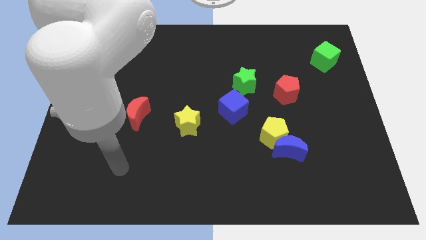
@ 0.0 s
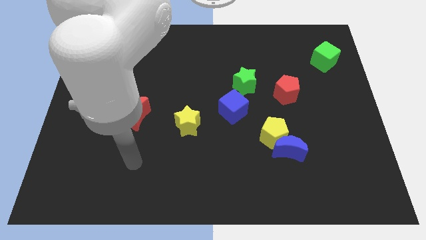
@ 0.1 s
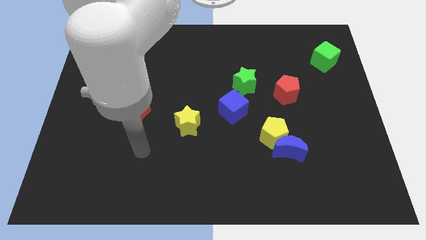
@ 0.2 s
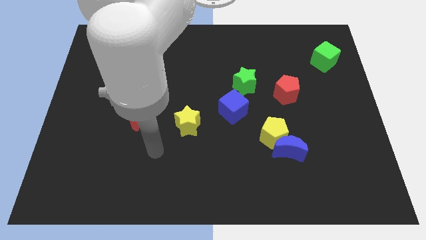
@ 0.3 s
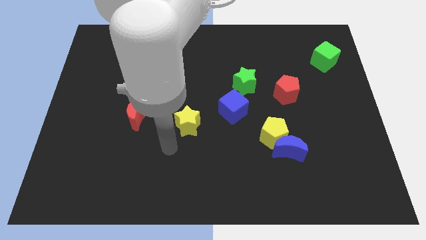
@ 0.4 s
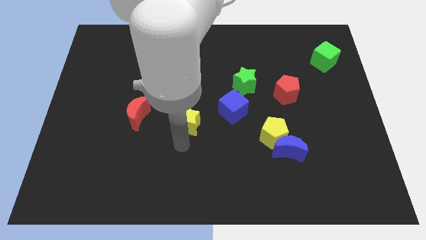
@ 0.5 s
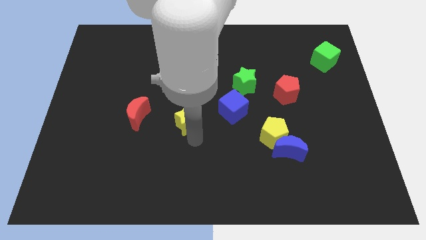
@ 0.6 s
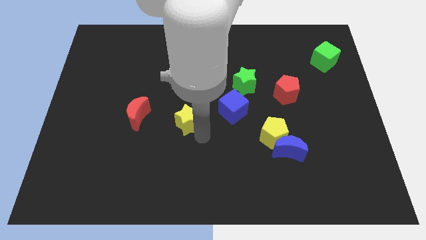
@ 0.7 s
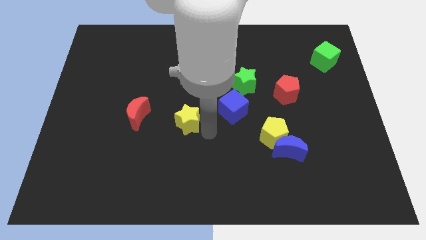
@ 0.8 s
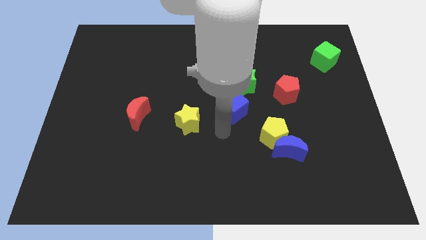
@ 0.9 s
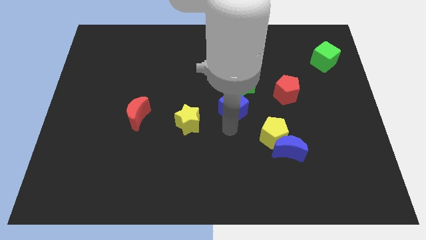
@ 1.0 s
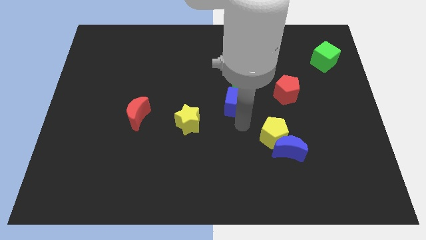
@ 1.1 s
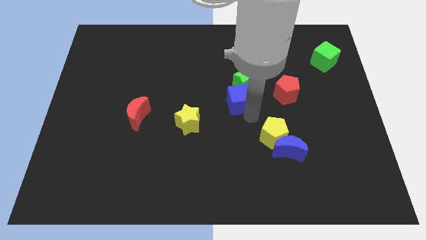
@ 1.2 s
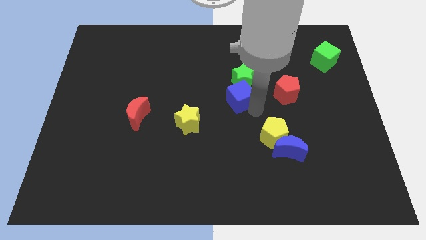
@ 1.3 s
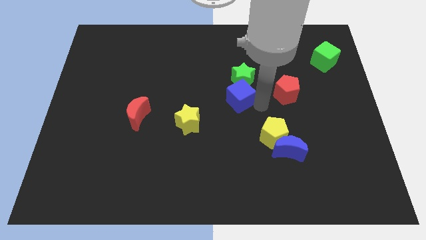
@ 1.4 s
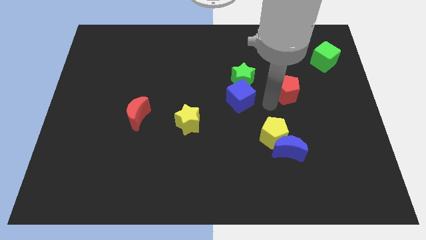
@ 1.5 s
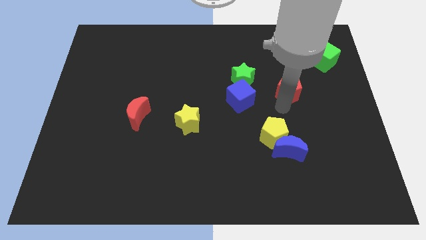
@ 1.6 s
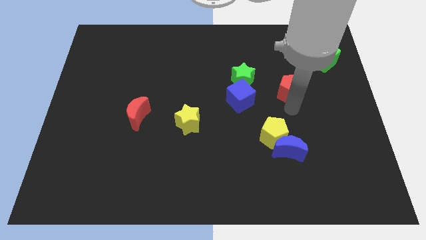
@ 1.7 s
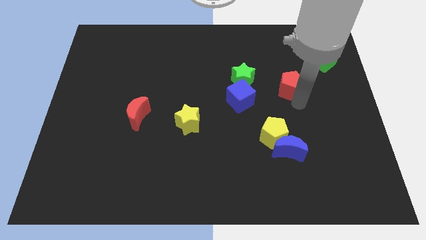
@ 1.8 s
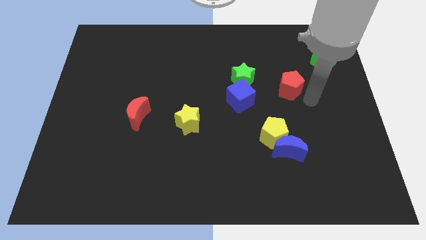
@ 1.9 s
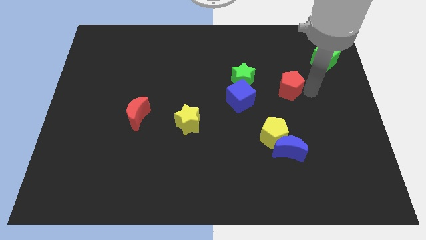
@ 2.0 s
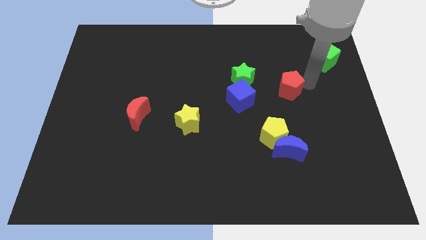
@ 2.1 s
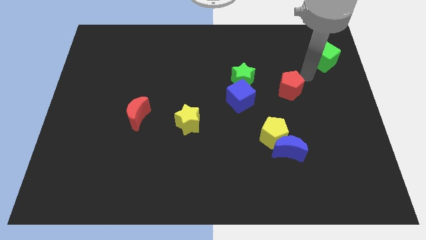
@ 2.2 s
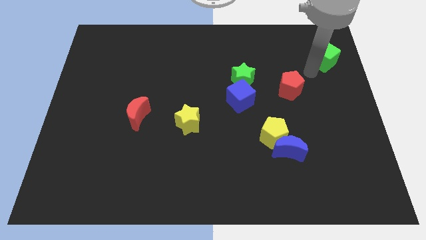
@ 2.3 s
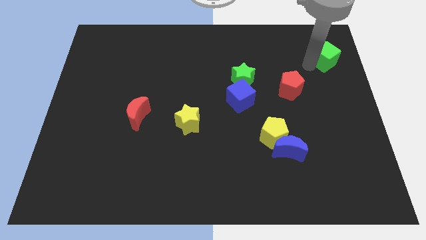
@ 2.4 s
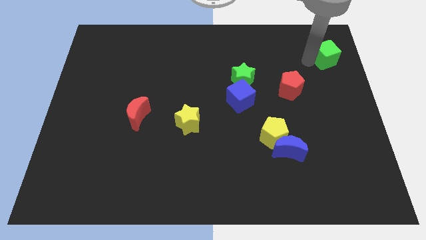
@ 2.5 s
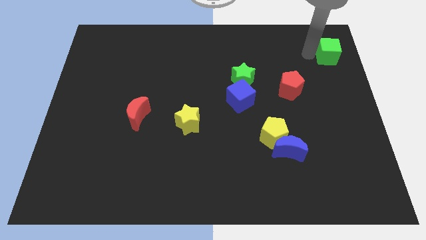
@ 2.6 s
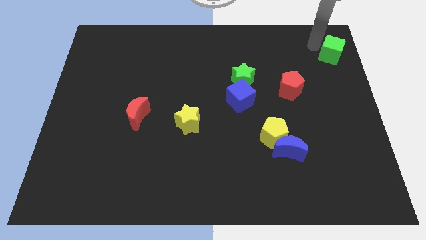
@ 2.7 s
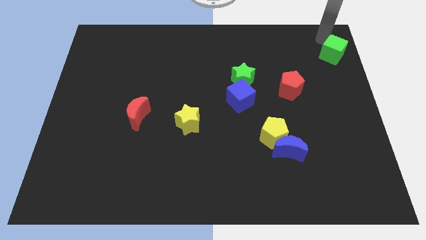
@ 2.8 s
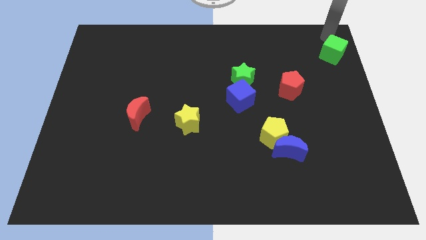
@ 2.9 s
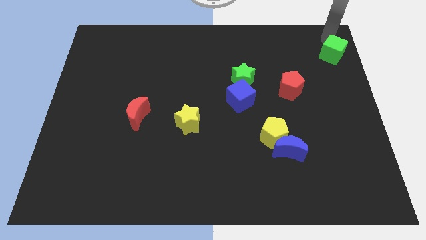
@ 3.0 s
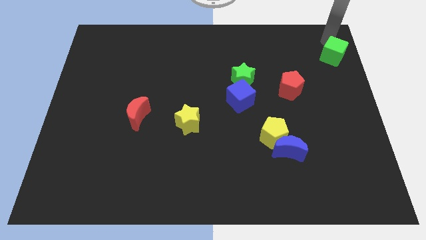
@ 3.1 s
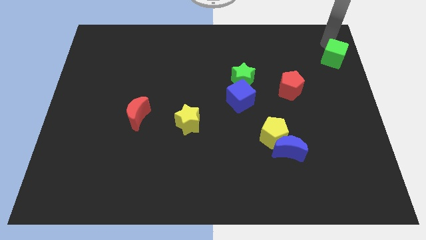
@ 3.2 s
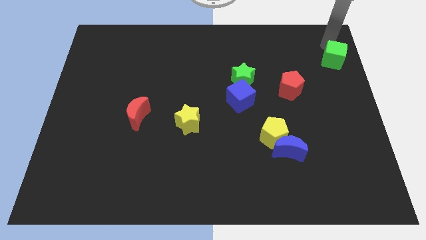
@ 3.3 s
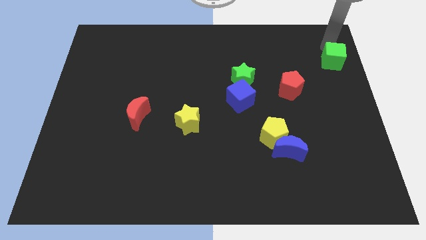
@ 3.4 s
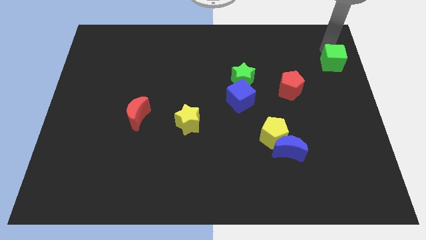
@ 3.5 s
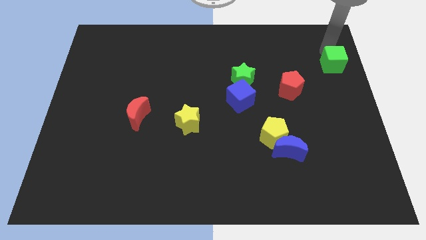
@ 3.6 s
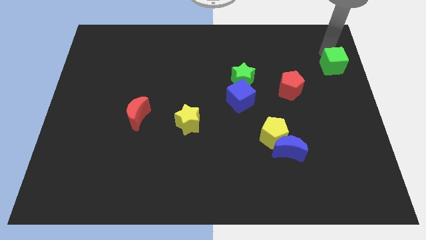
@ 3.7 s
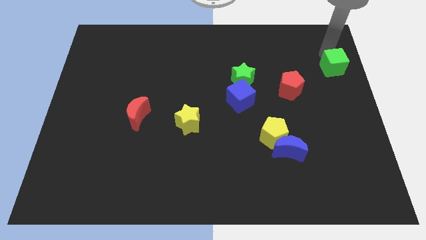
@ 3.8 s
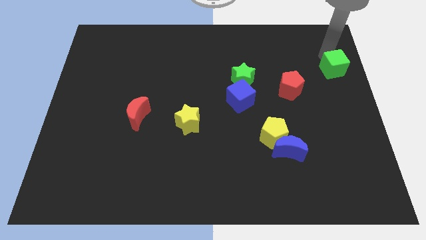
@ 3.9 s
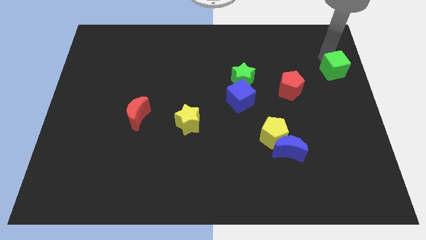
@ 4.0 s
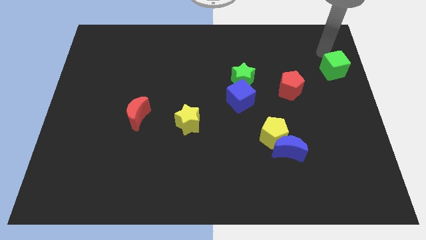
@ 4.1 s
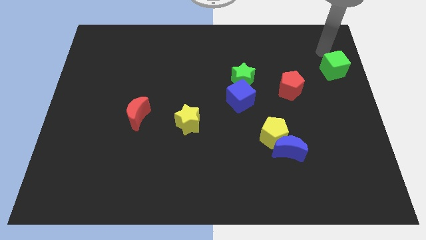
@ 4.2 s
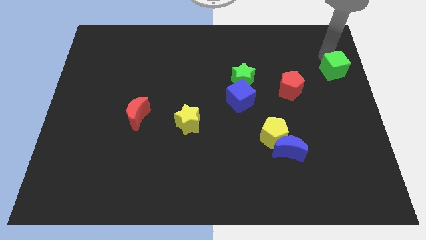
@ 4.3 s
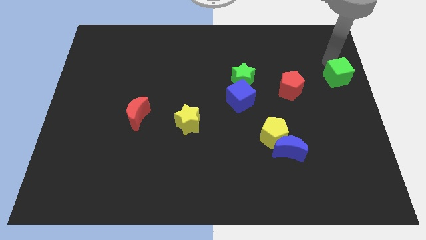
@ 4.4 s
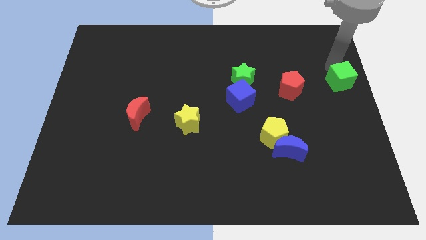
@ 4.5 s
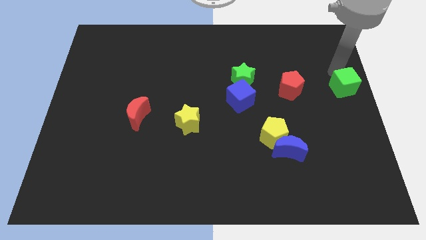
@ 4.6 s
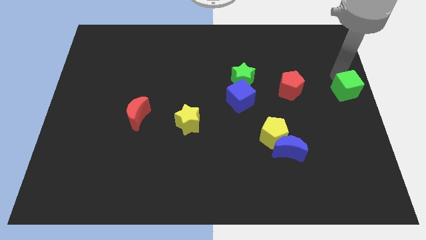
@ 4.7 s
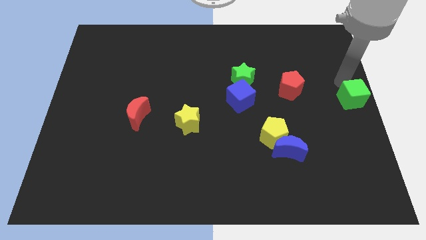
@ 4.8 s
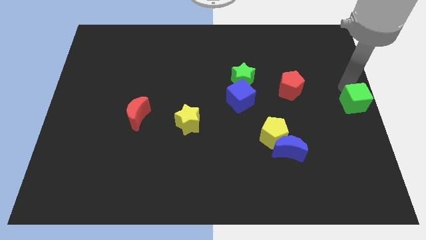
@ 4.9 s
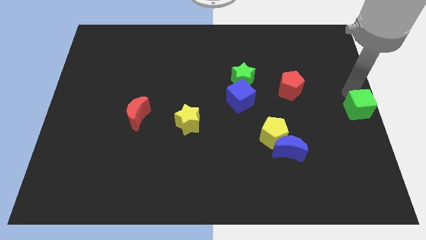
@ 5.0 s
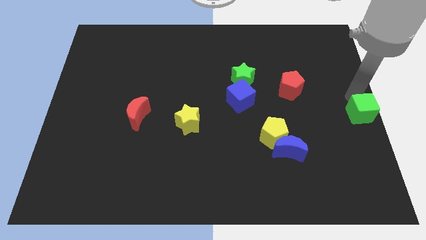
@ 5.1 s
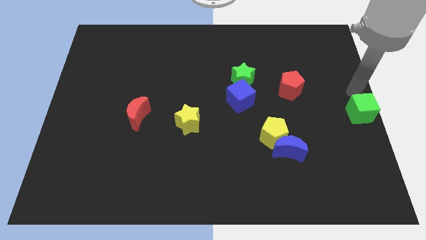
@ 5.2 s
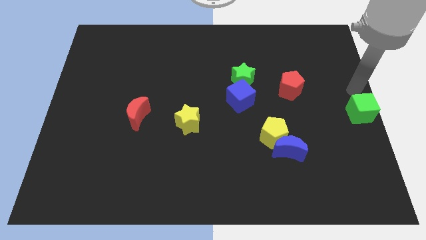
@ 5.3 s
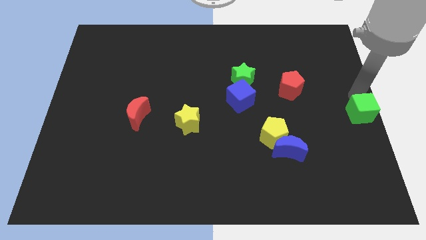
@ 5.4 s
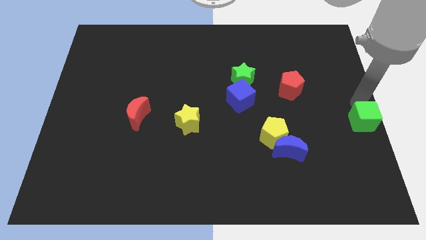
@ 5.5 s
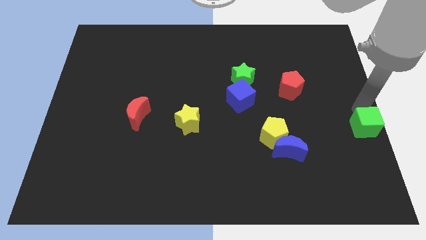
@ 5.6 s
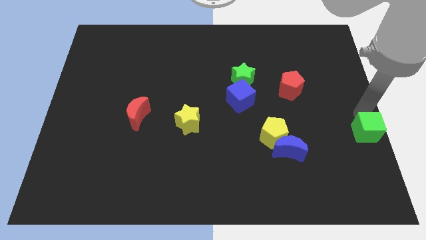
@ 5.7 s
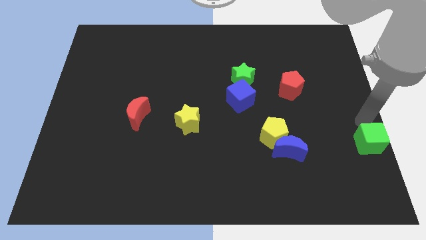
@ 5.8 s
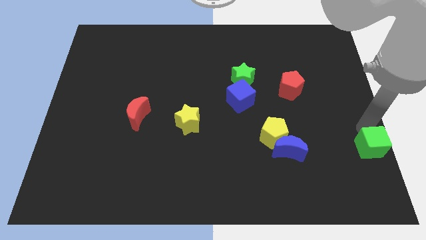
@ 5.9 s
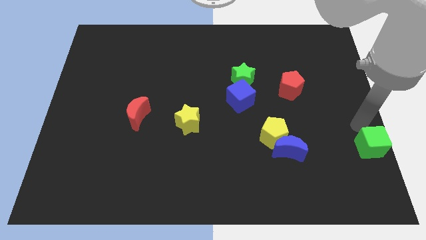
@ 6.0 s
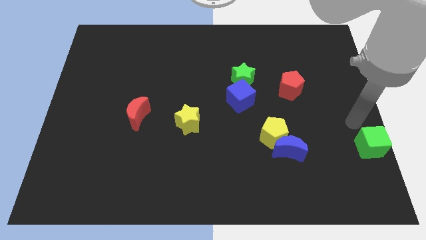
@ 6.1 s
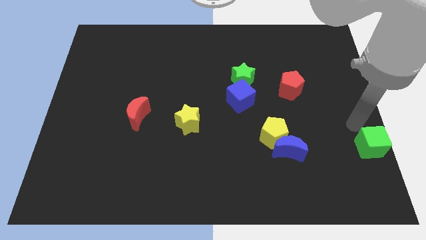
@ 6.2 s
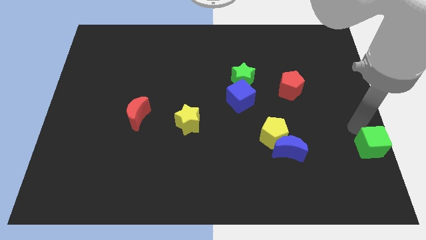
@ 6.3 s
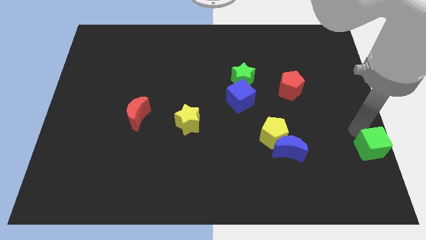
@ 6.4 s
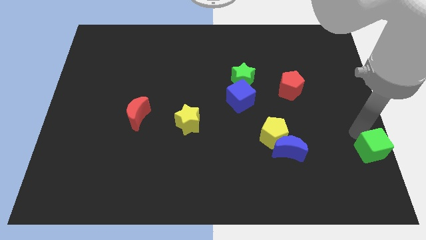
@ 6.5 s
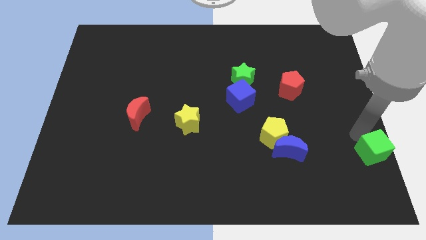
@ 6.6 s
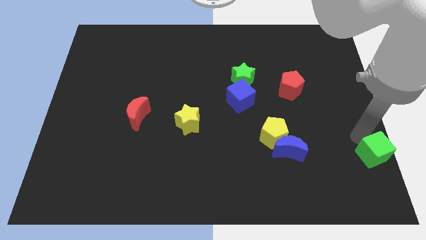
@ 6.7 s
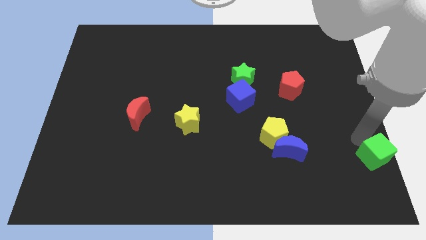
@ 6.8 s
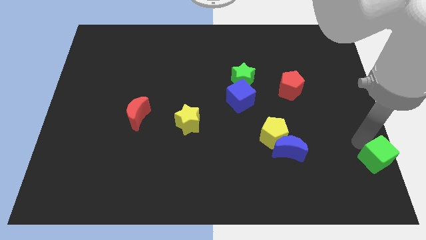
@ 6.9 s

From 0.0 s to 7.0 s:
move the green cube to the bottom right of the board
